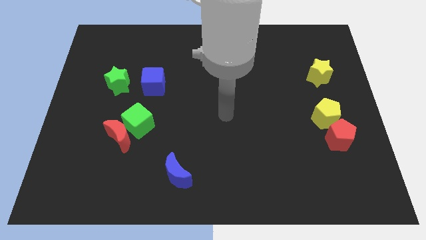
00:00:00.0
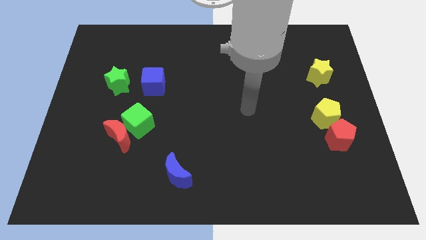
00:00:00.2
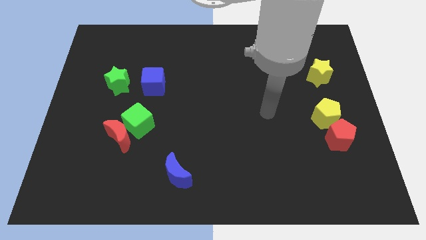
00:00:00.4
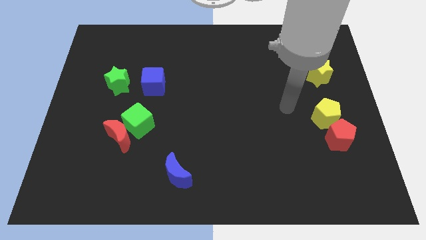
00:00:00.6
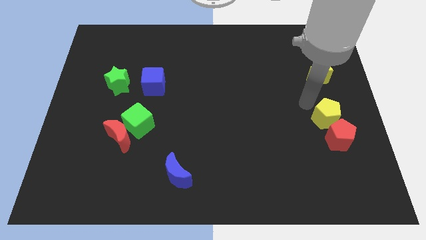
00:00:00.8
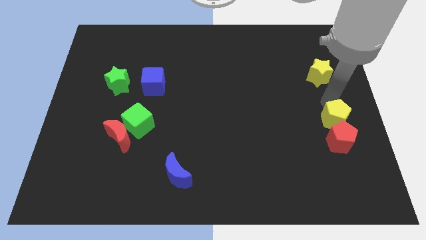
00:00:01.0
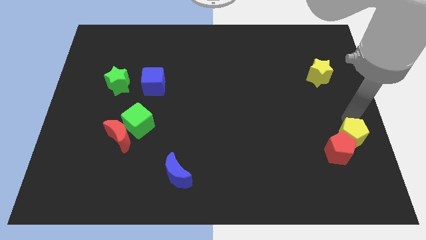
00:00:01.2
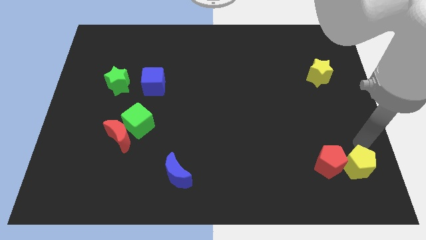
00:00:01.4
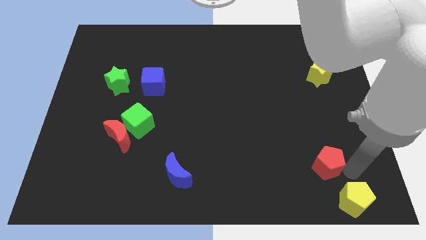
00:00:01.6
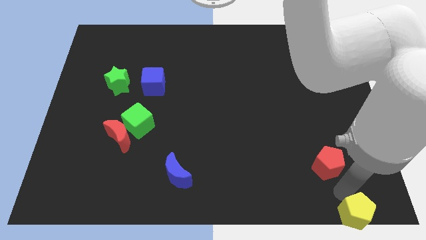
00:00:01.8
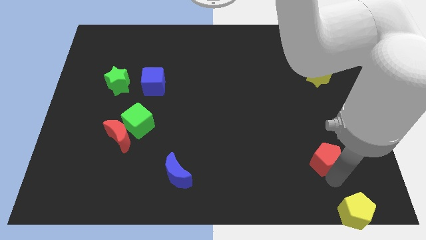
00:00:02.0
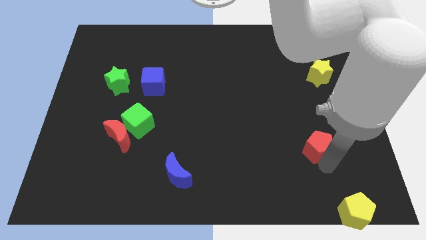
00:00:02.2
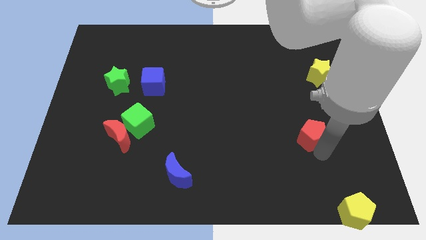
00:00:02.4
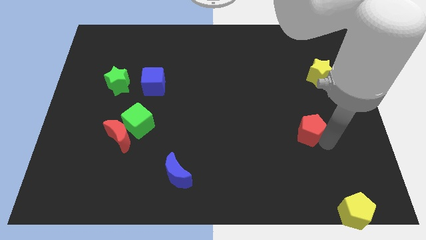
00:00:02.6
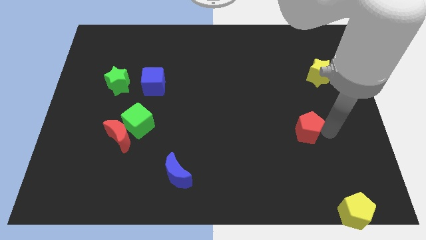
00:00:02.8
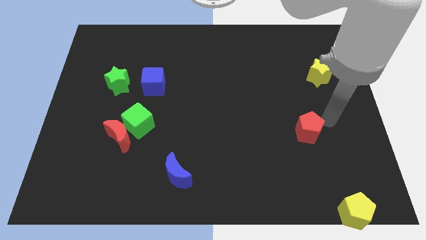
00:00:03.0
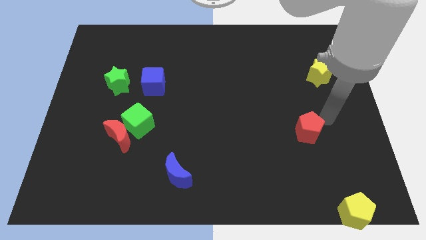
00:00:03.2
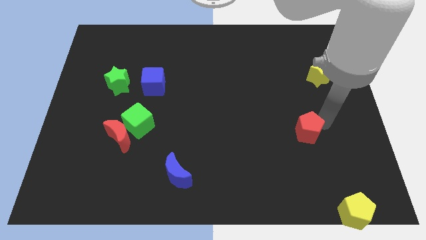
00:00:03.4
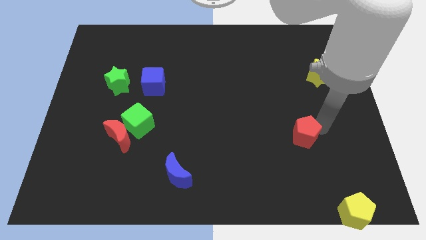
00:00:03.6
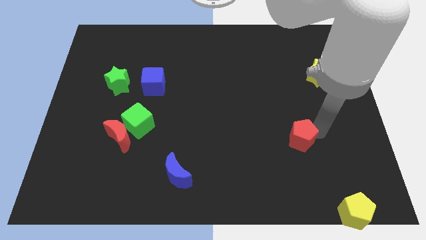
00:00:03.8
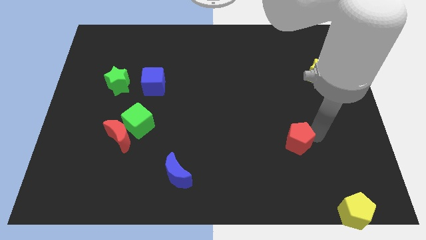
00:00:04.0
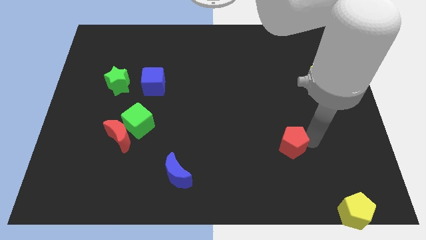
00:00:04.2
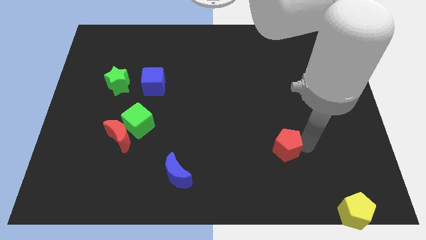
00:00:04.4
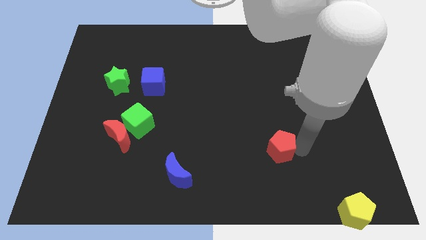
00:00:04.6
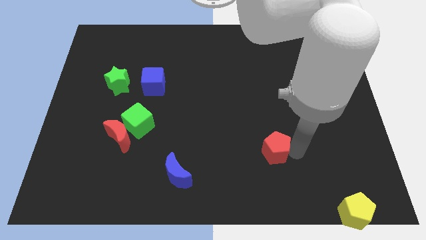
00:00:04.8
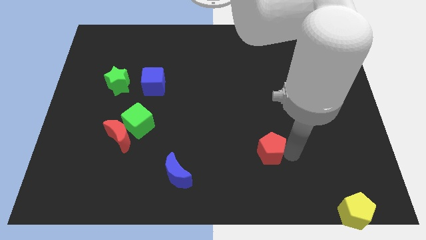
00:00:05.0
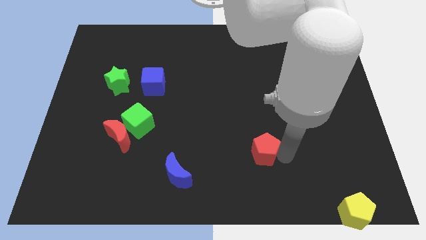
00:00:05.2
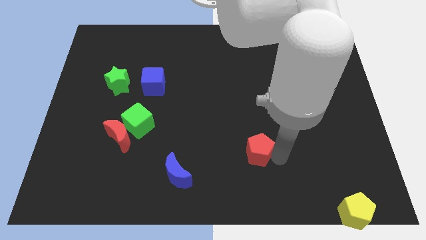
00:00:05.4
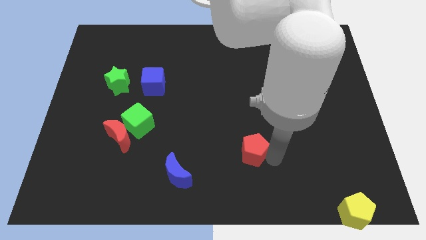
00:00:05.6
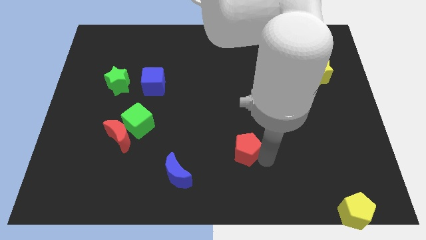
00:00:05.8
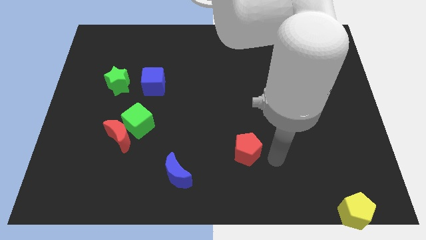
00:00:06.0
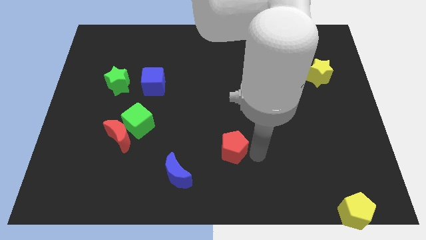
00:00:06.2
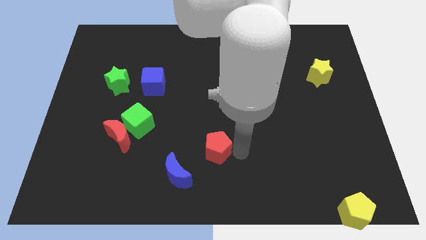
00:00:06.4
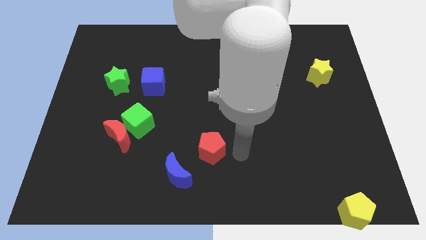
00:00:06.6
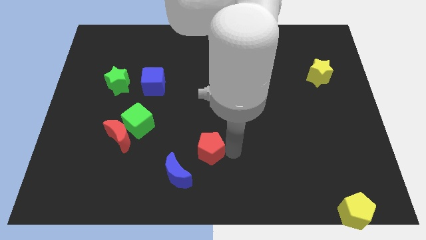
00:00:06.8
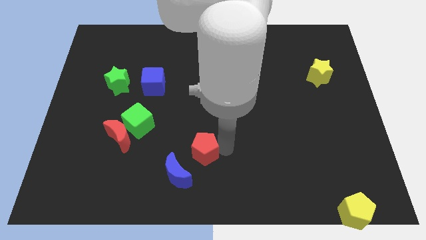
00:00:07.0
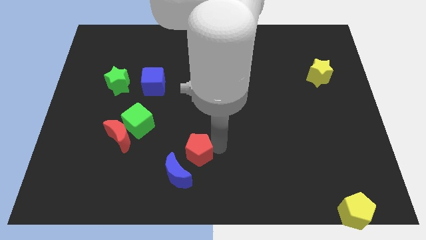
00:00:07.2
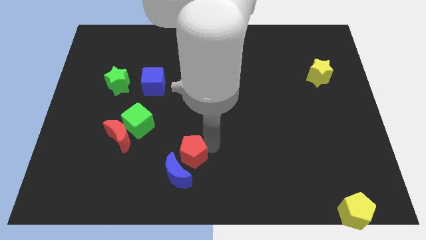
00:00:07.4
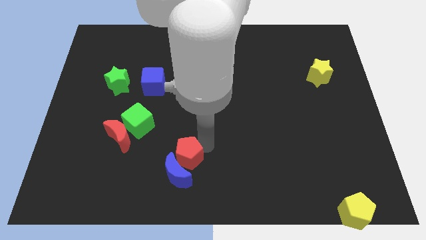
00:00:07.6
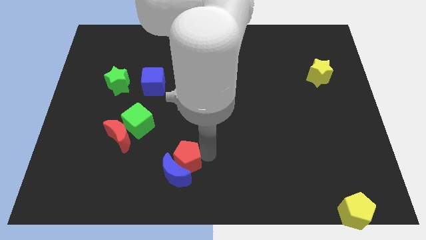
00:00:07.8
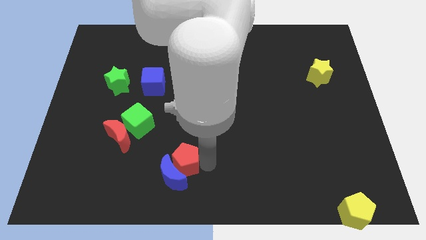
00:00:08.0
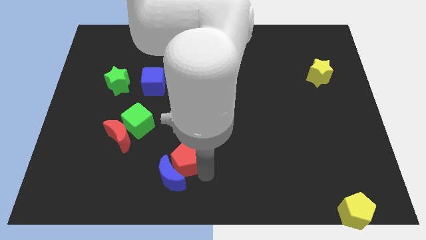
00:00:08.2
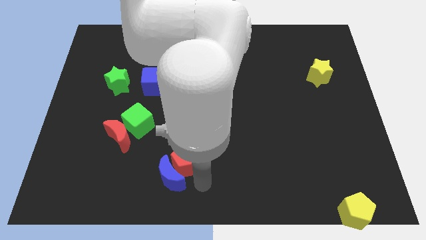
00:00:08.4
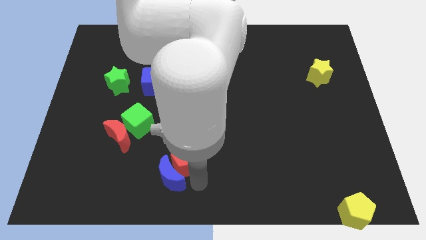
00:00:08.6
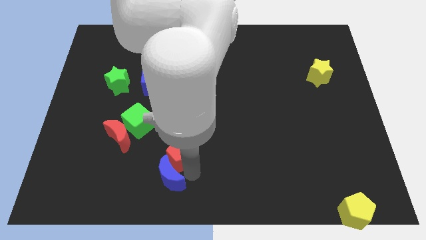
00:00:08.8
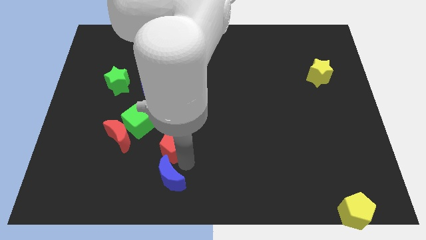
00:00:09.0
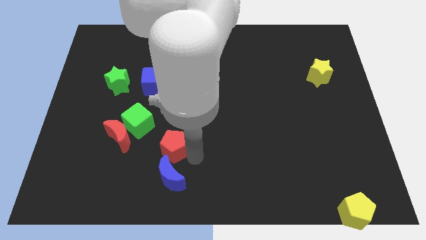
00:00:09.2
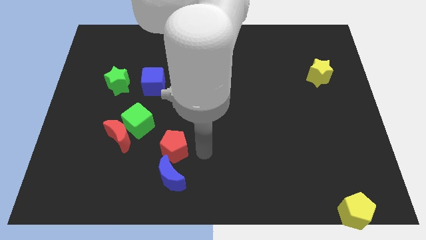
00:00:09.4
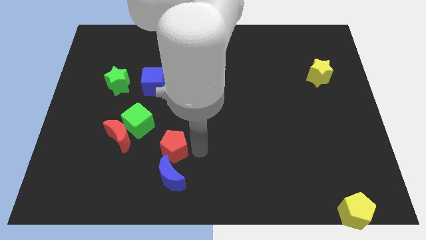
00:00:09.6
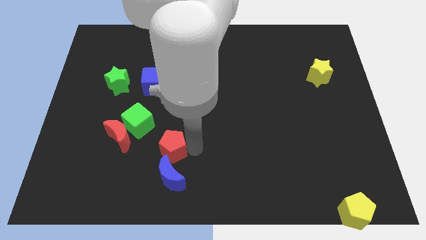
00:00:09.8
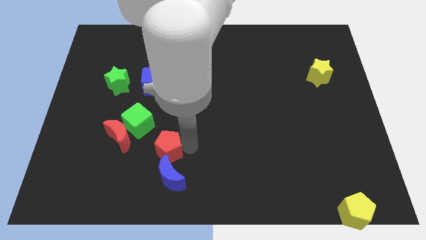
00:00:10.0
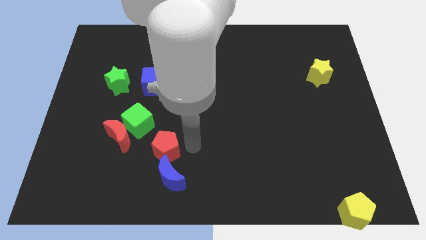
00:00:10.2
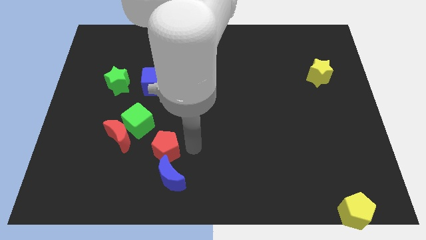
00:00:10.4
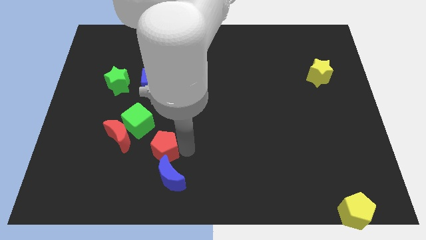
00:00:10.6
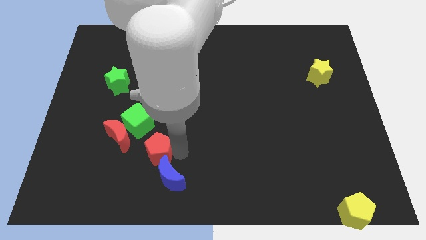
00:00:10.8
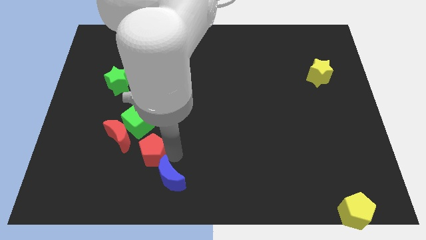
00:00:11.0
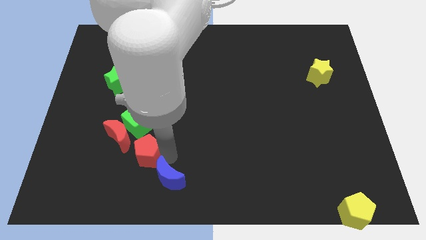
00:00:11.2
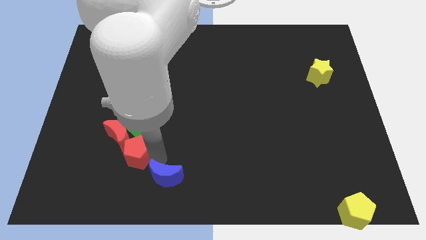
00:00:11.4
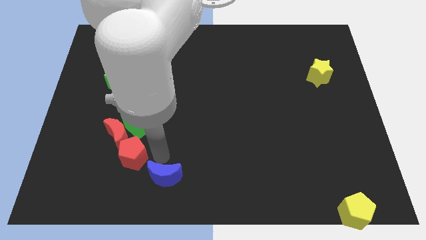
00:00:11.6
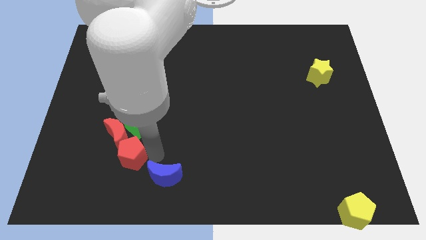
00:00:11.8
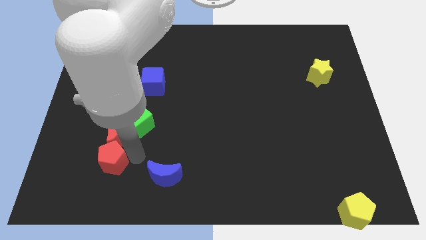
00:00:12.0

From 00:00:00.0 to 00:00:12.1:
push the red pentagon to the bottom left side of the red moon
